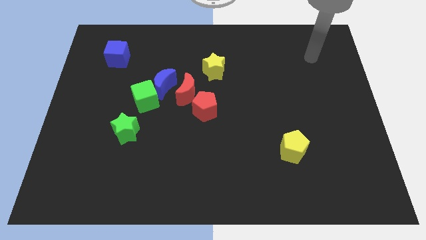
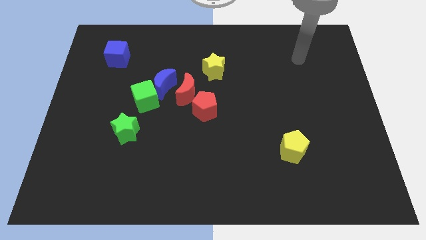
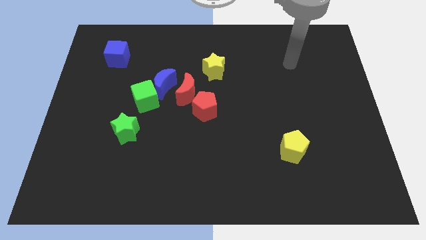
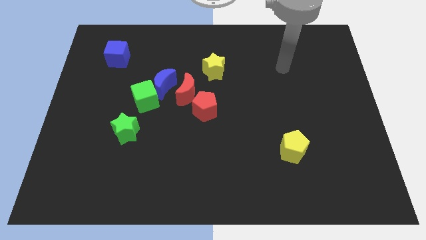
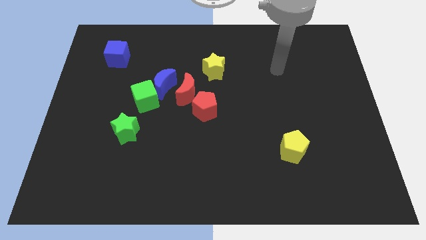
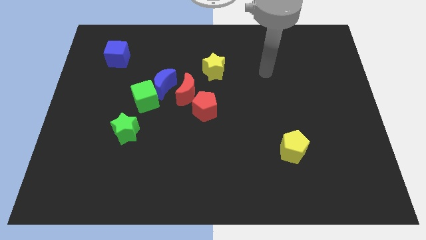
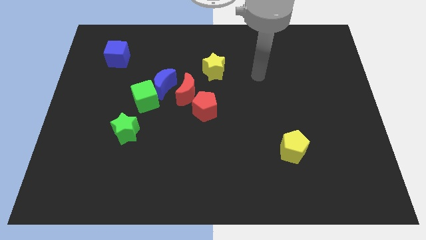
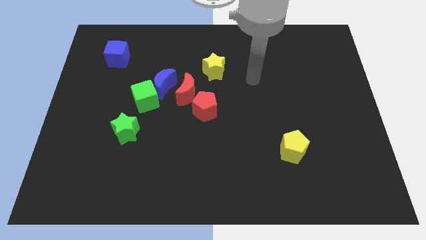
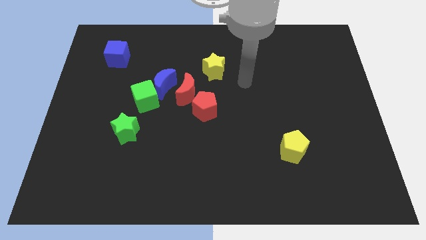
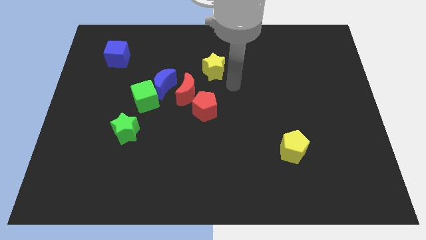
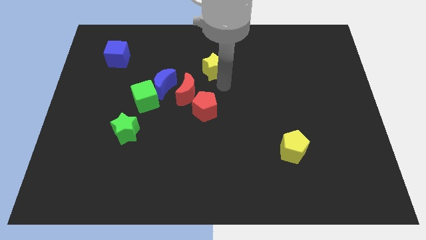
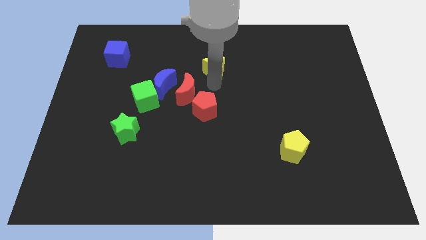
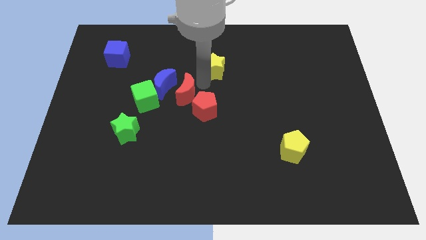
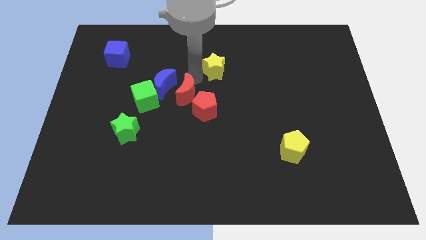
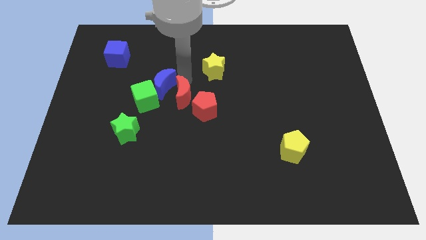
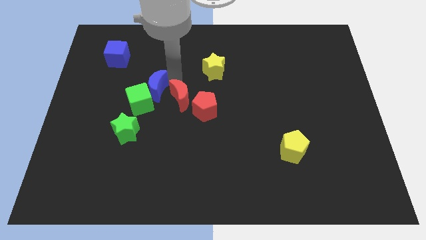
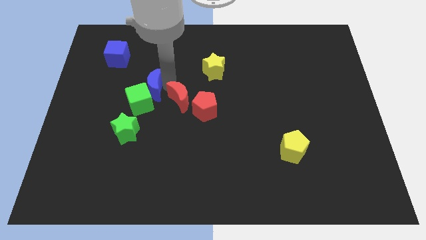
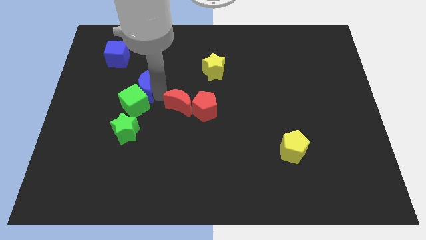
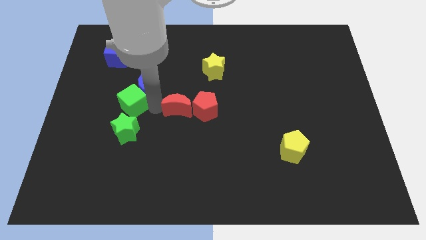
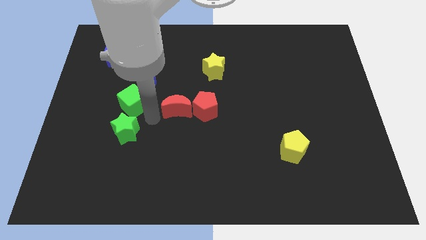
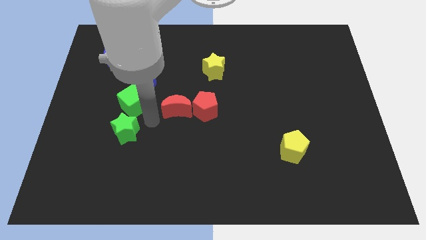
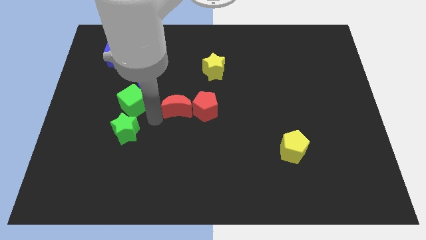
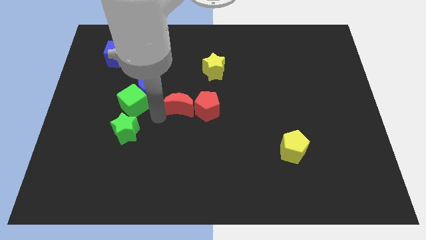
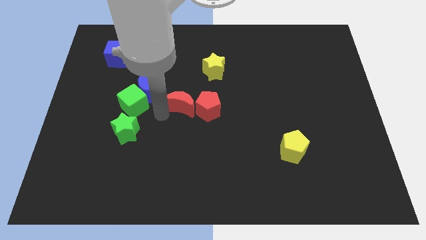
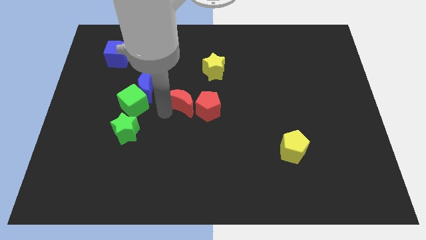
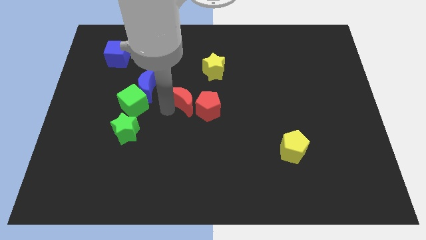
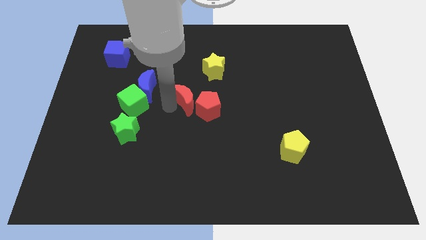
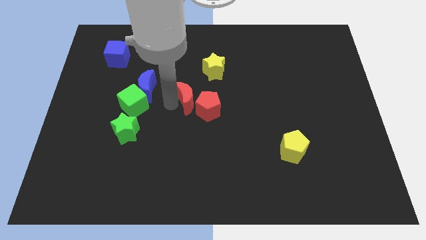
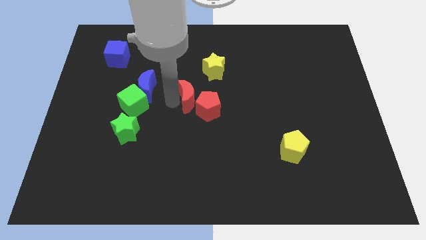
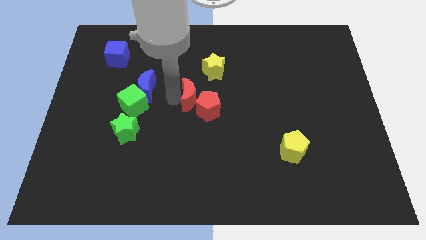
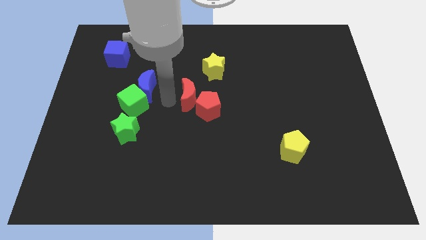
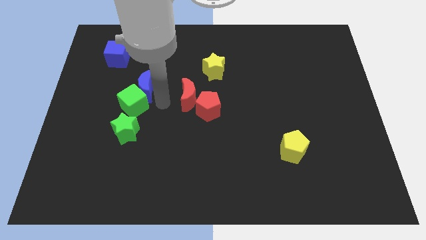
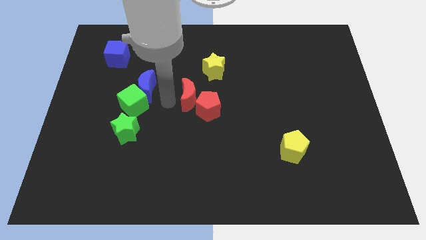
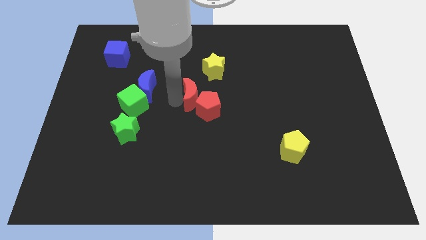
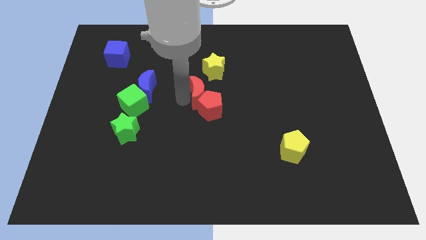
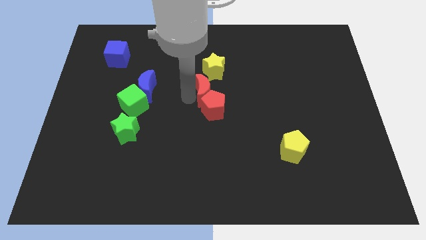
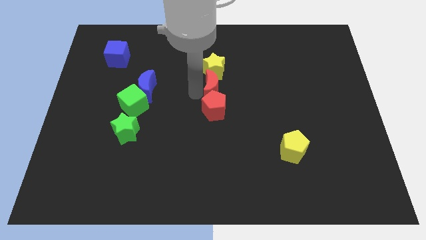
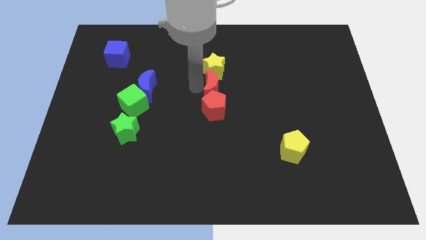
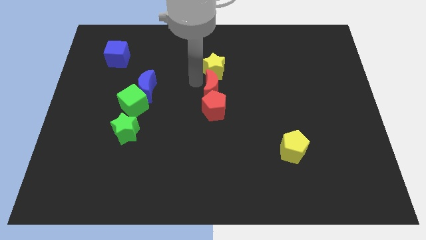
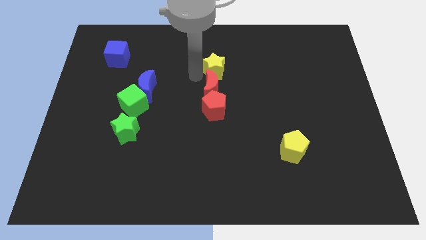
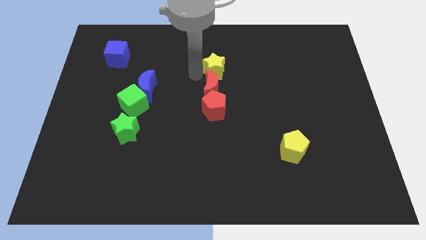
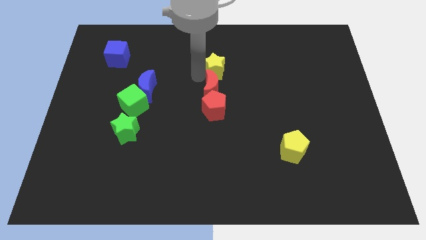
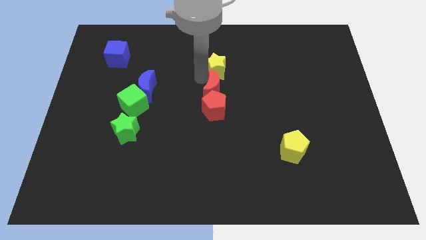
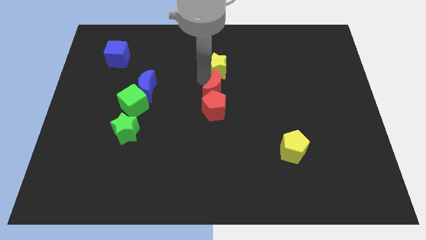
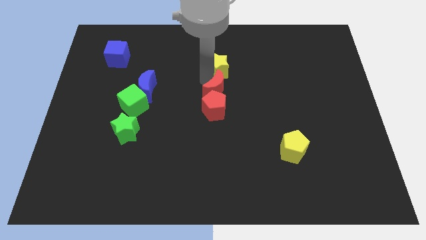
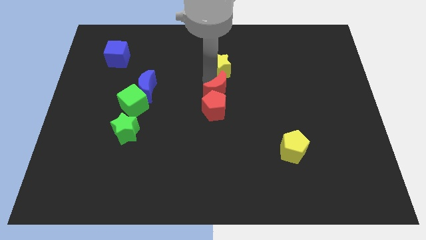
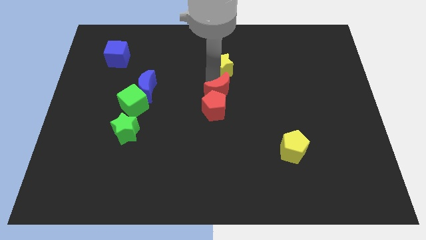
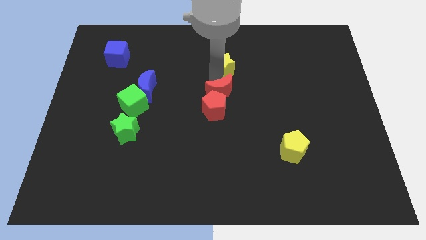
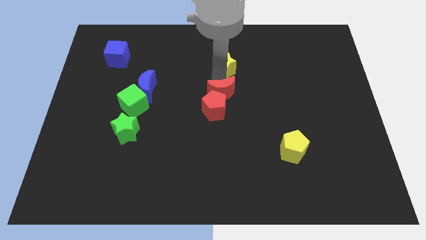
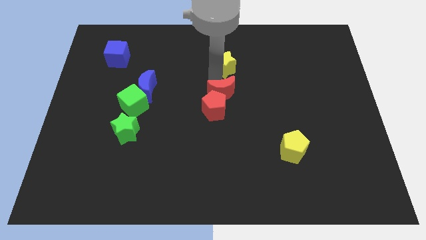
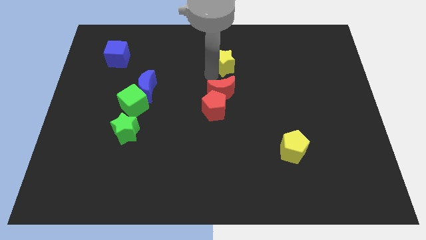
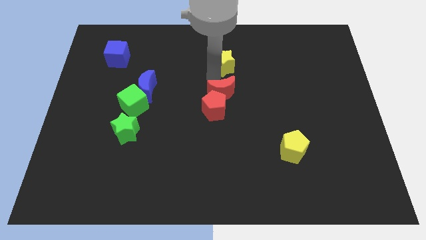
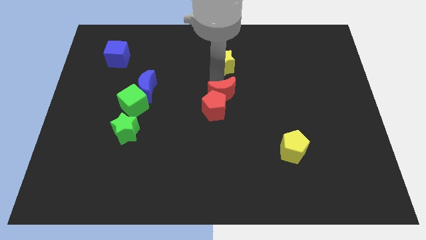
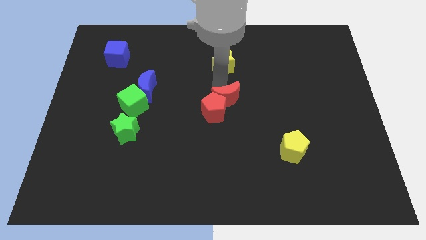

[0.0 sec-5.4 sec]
move the red moon slightly down and then to the right

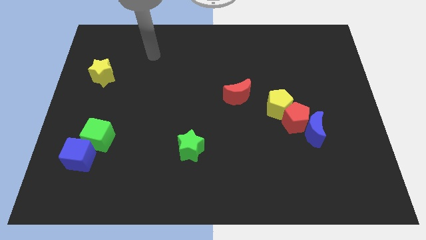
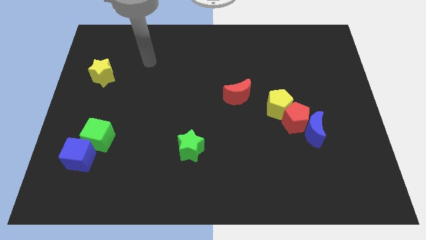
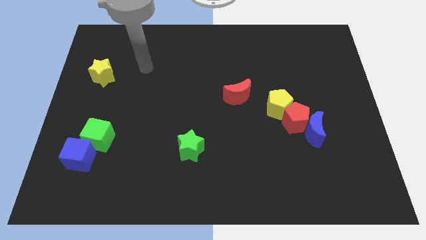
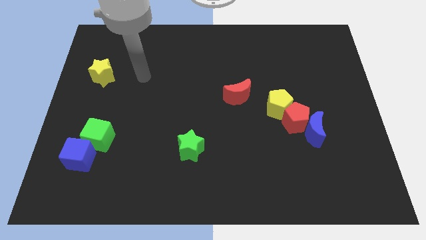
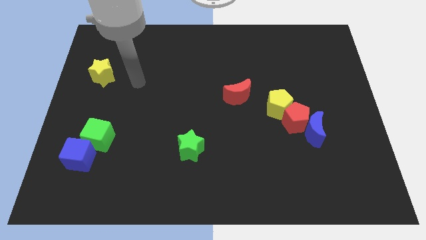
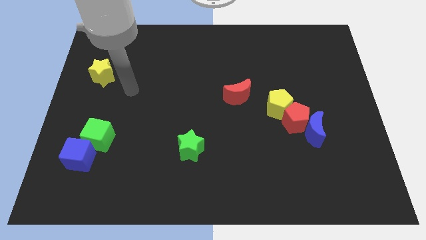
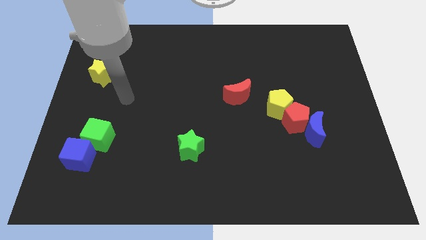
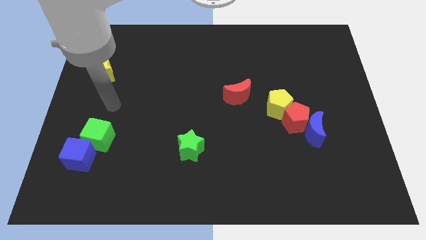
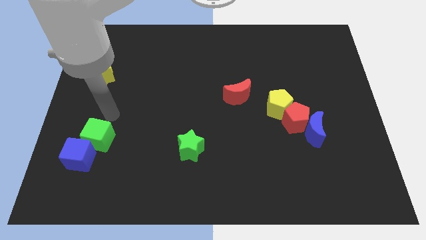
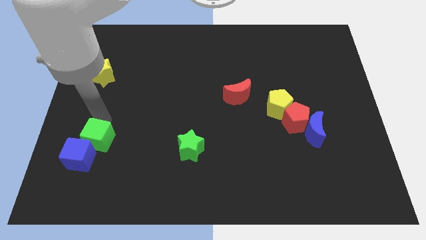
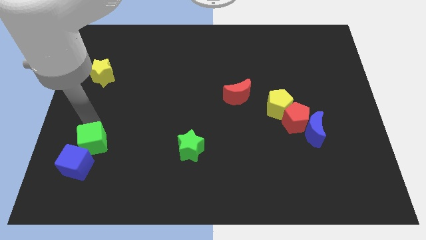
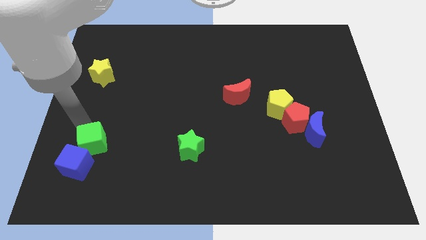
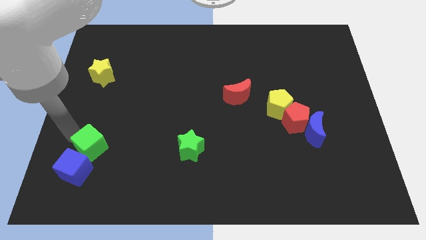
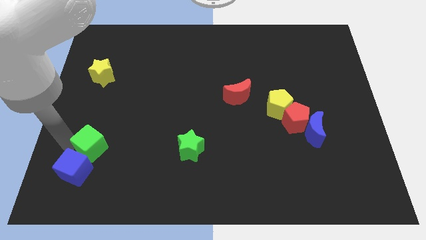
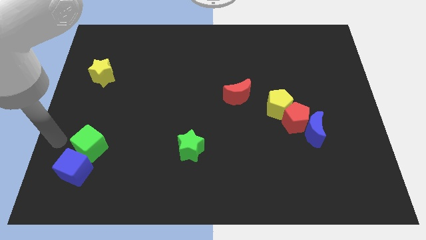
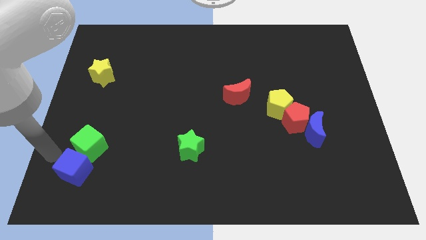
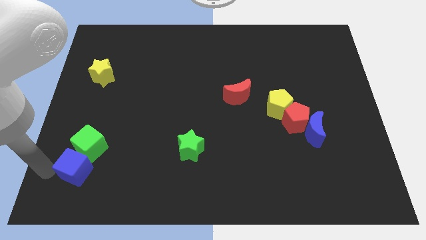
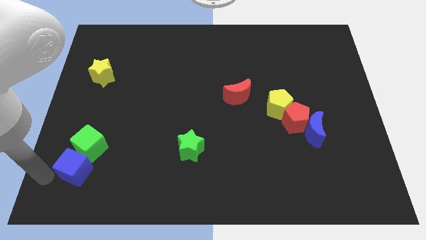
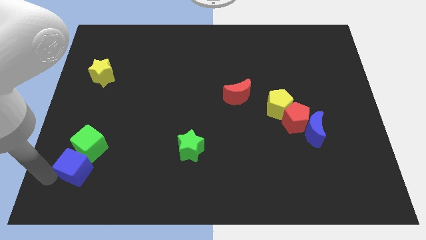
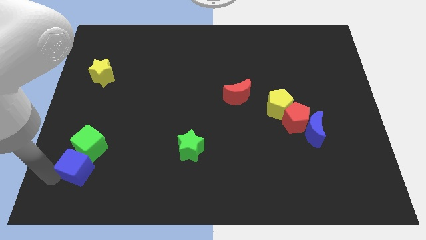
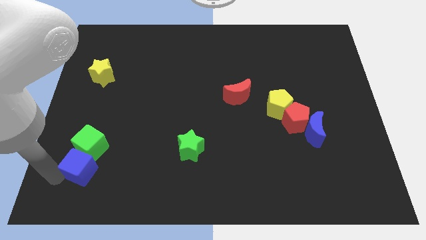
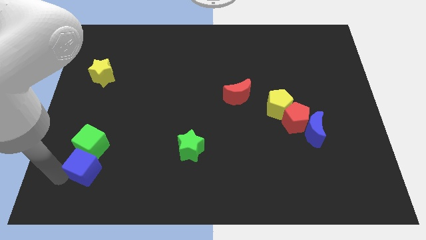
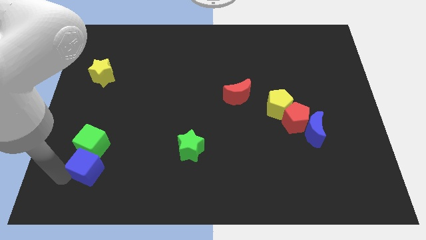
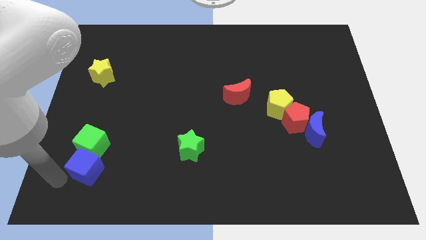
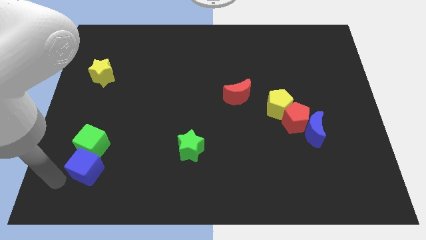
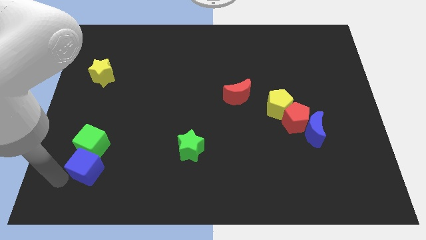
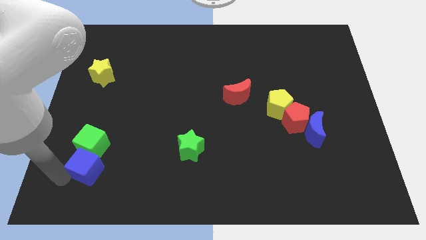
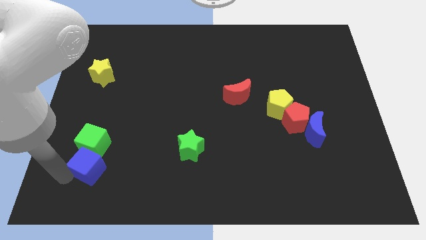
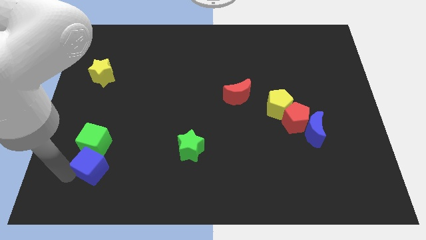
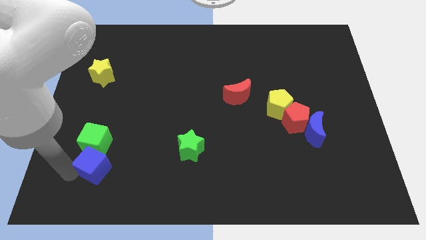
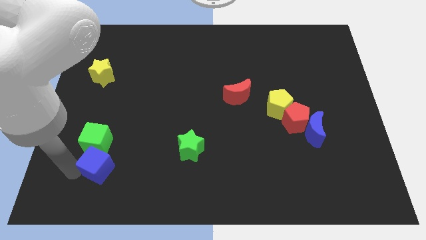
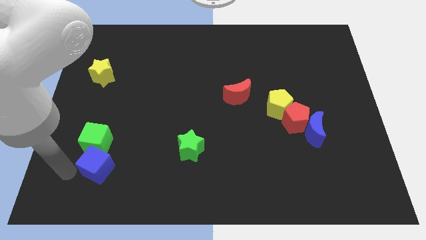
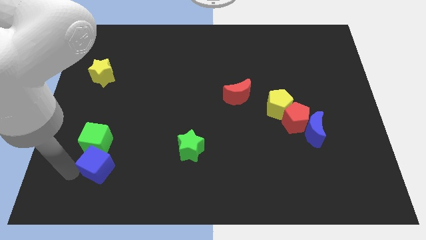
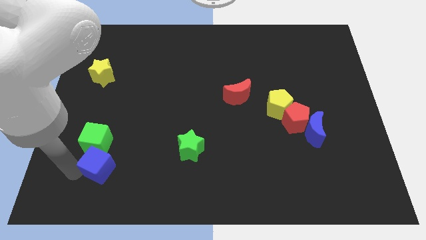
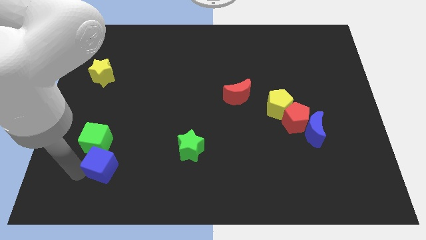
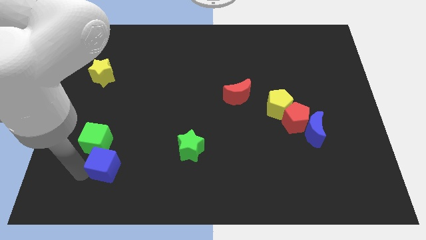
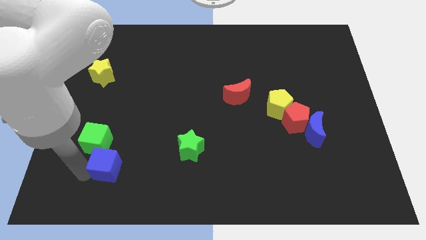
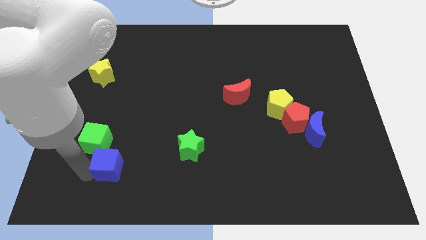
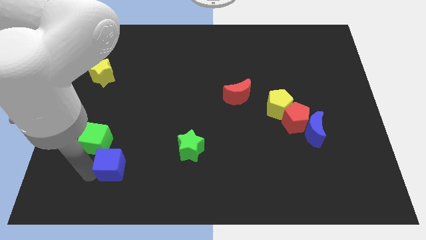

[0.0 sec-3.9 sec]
slide the blue cube right a little bit
